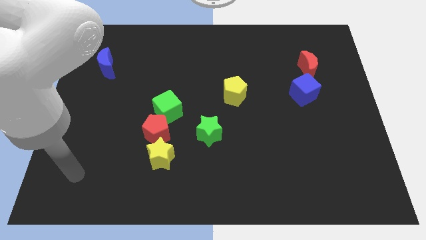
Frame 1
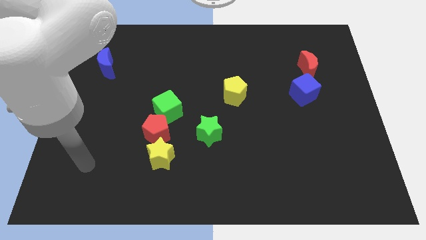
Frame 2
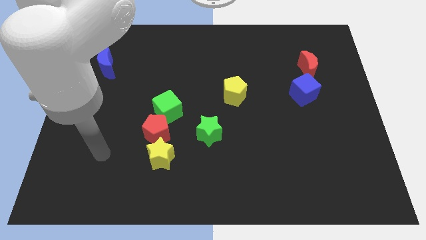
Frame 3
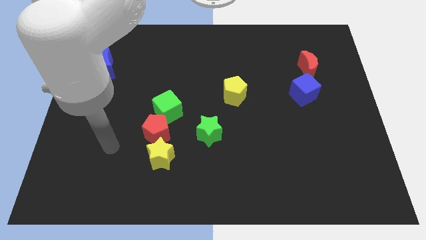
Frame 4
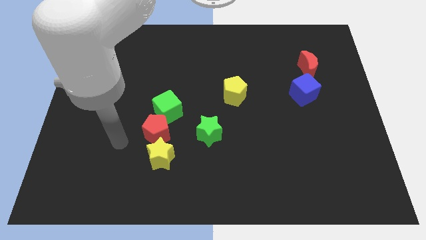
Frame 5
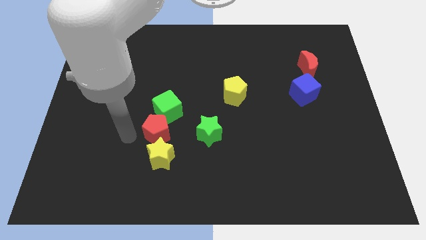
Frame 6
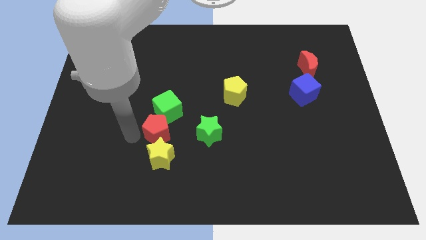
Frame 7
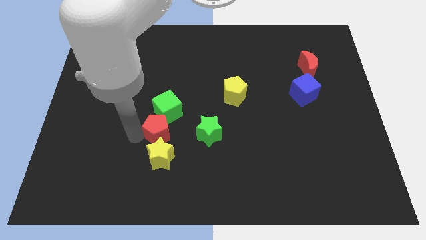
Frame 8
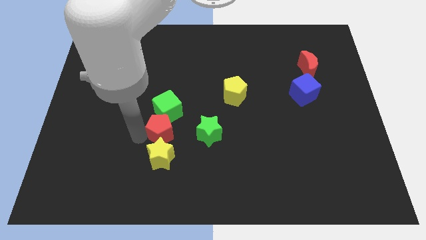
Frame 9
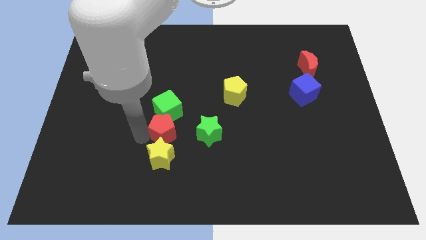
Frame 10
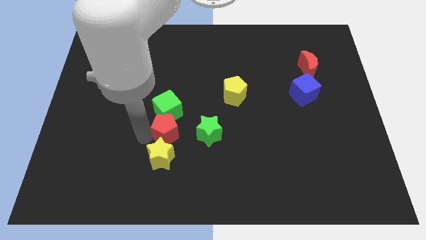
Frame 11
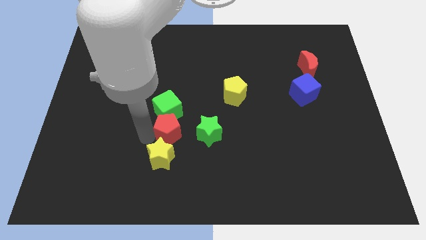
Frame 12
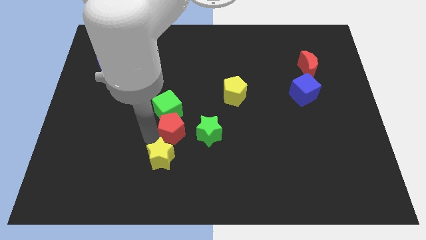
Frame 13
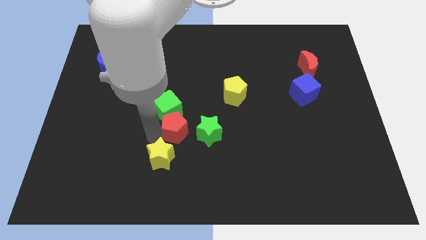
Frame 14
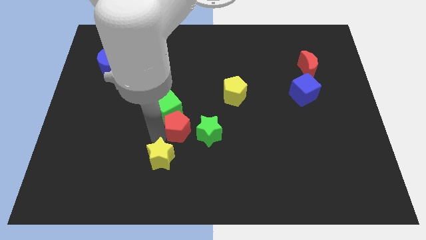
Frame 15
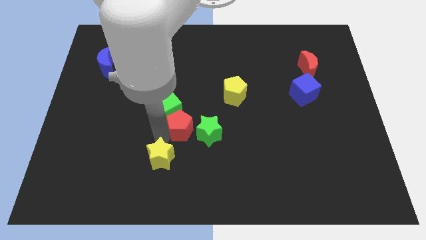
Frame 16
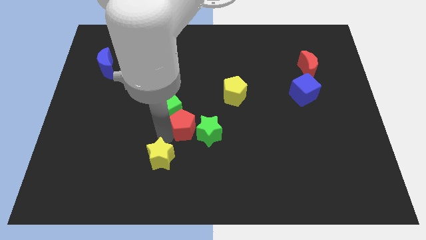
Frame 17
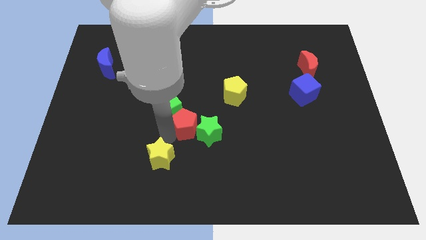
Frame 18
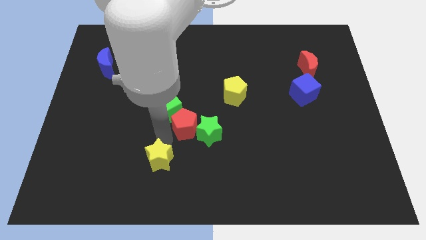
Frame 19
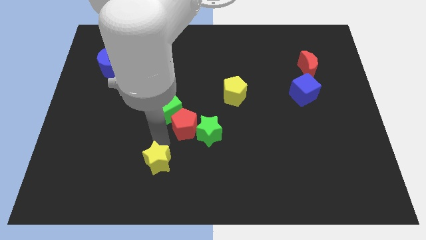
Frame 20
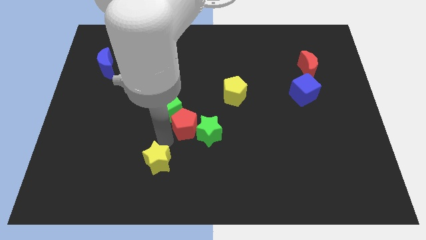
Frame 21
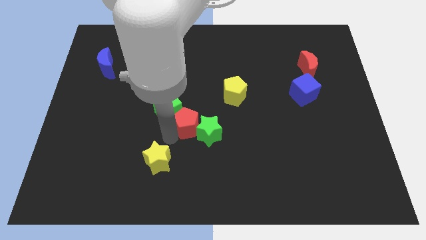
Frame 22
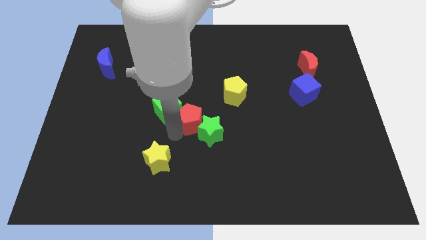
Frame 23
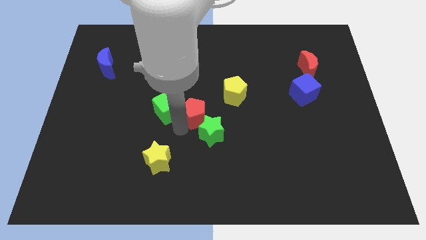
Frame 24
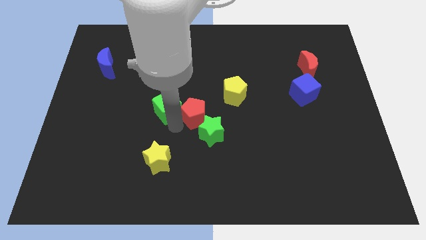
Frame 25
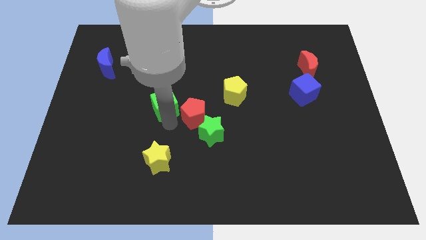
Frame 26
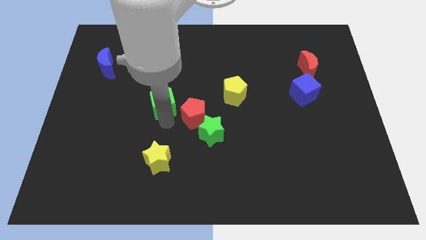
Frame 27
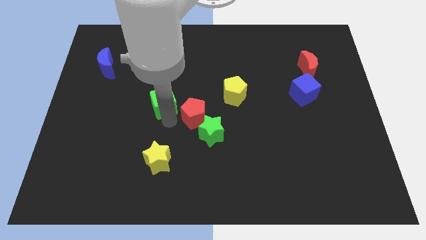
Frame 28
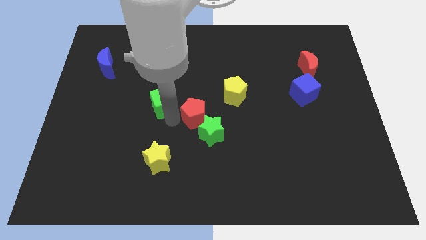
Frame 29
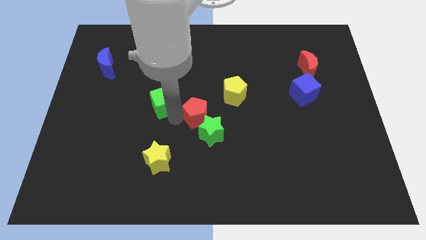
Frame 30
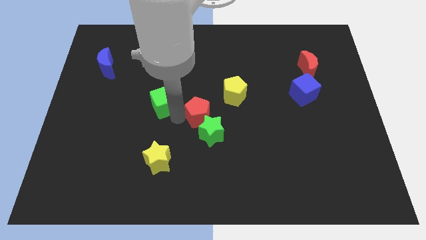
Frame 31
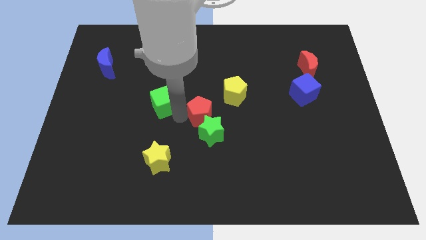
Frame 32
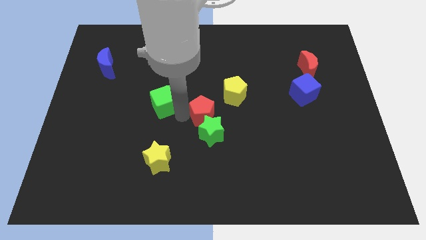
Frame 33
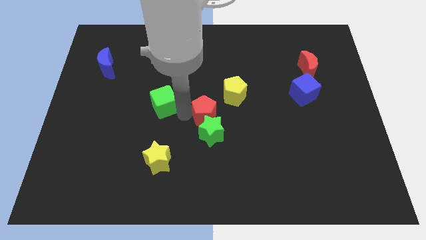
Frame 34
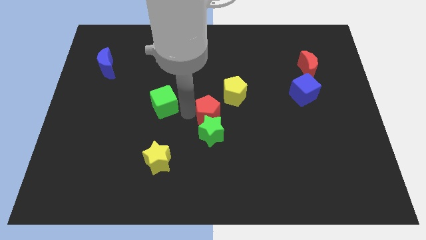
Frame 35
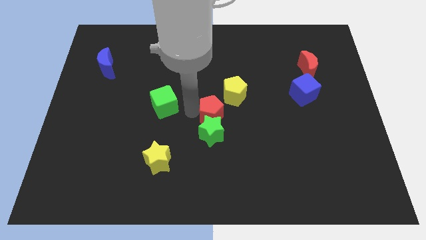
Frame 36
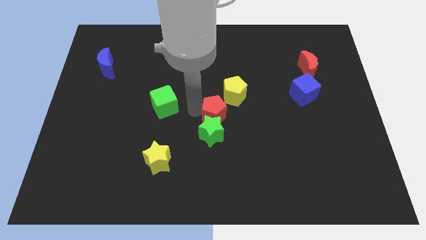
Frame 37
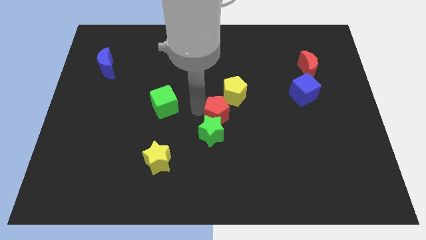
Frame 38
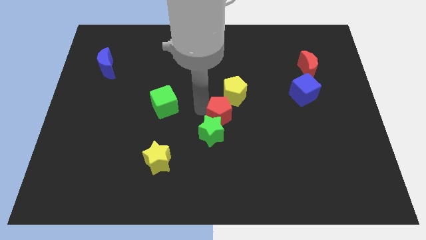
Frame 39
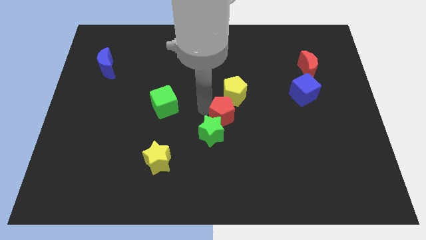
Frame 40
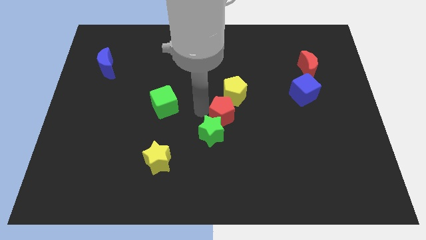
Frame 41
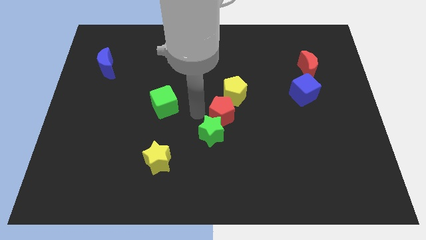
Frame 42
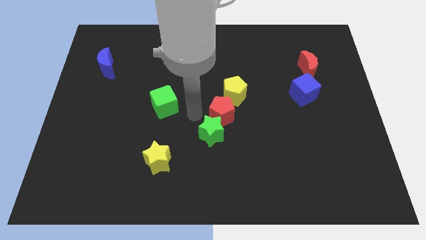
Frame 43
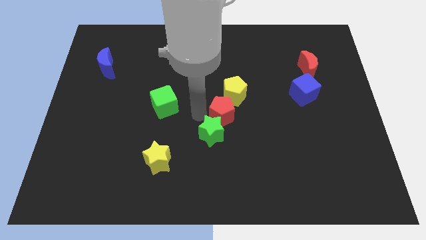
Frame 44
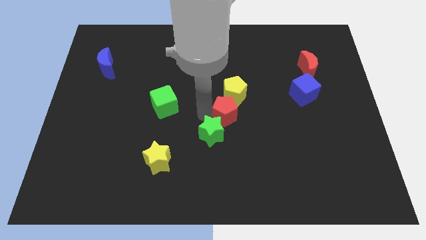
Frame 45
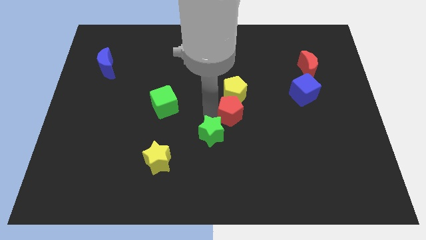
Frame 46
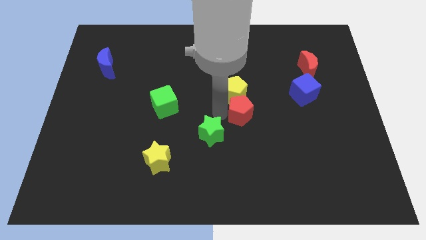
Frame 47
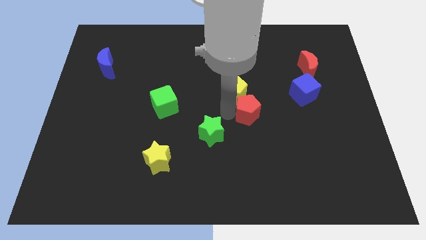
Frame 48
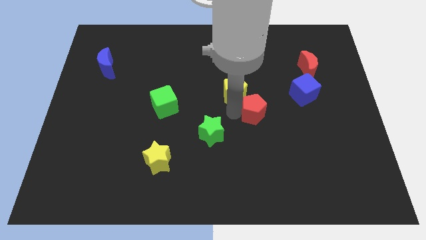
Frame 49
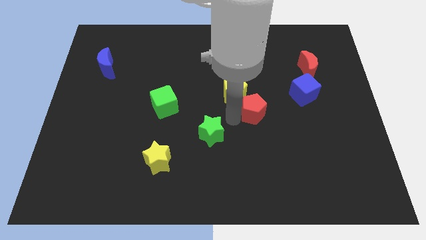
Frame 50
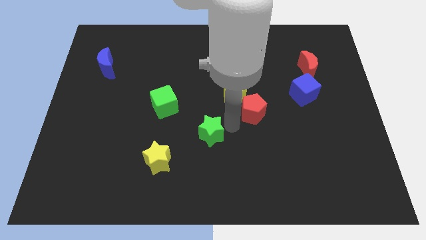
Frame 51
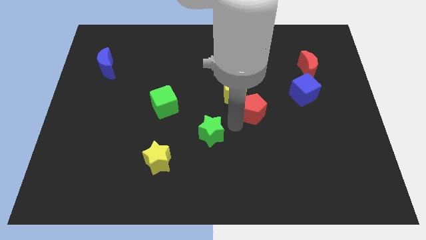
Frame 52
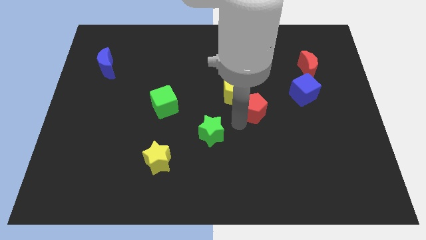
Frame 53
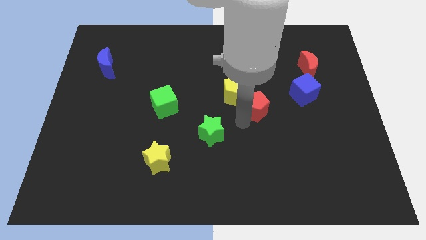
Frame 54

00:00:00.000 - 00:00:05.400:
move the red pentagon right of the yellow pentagon

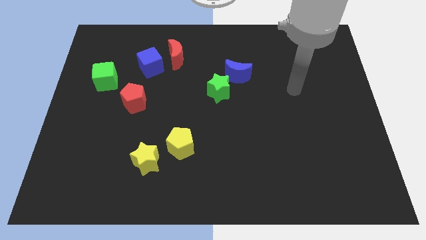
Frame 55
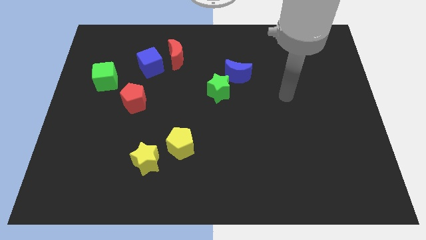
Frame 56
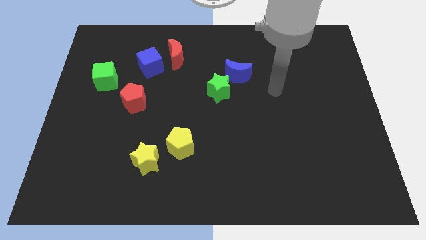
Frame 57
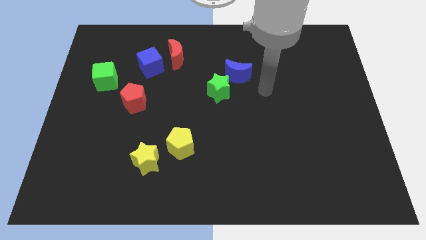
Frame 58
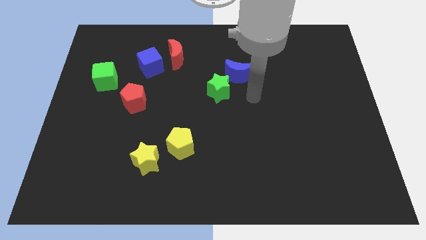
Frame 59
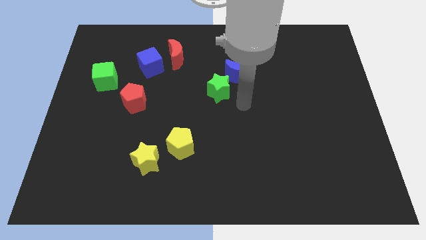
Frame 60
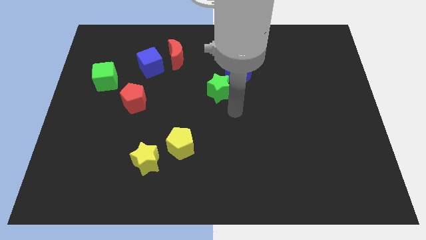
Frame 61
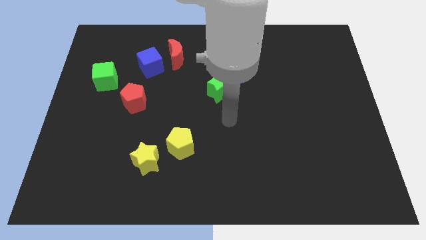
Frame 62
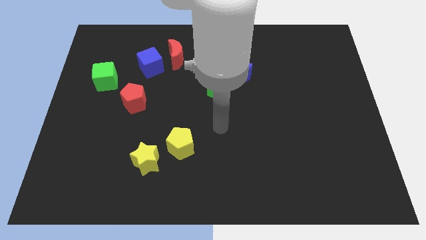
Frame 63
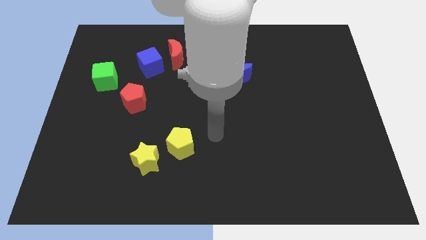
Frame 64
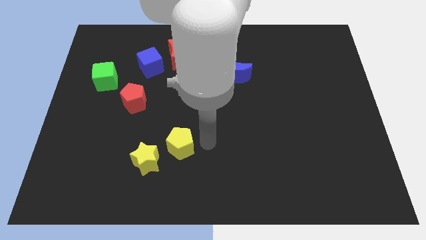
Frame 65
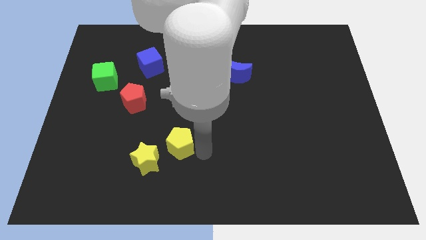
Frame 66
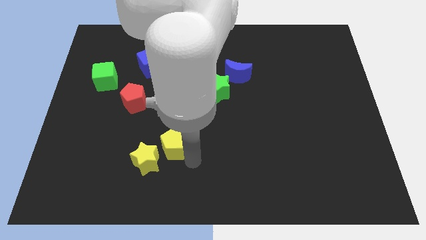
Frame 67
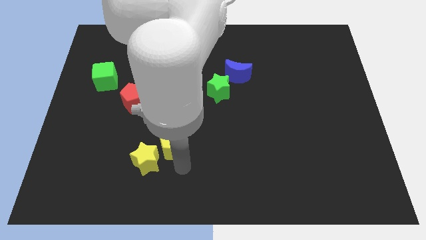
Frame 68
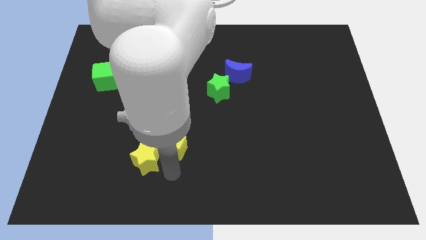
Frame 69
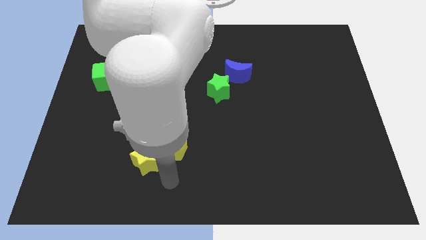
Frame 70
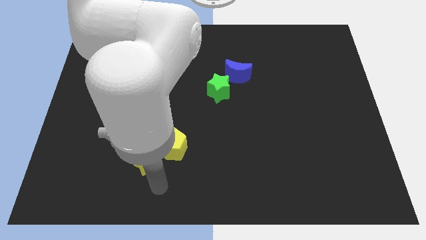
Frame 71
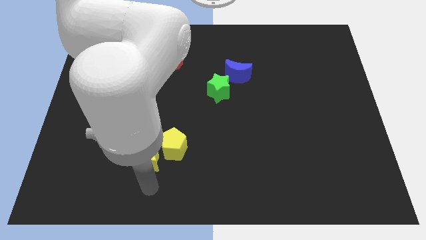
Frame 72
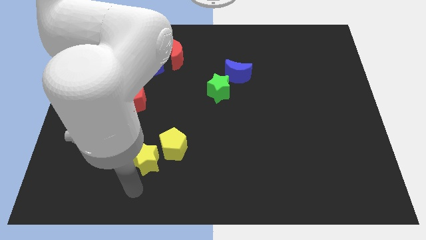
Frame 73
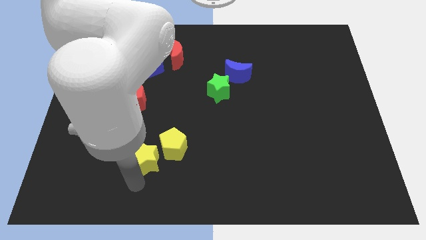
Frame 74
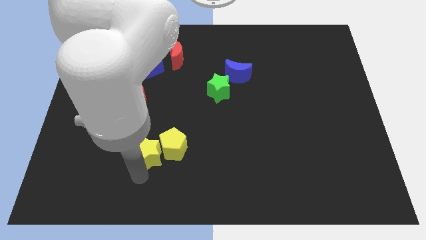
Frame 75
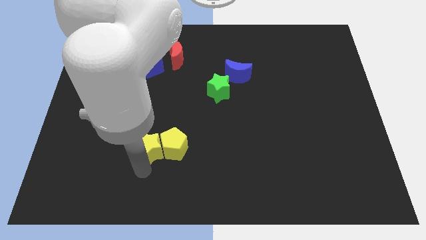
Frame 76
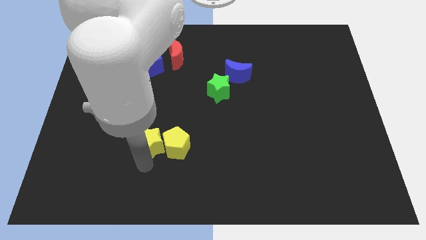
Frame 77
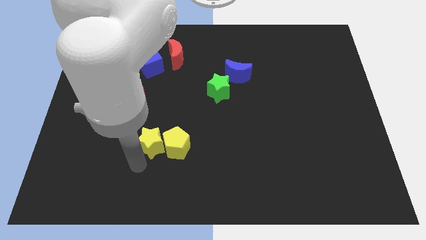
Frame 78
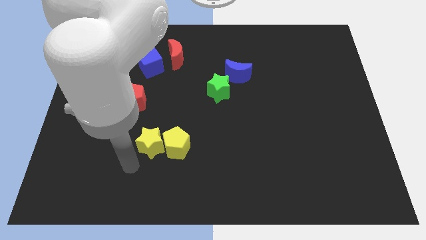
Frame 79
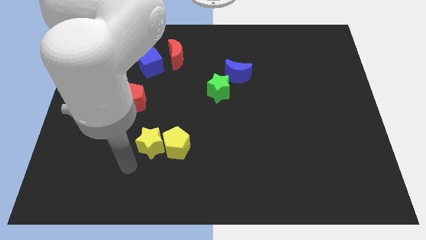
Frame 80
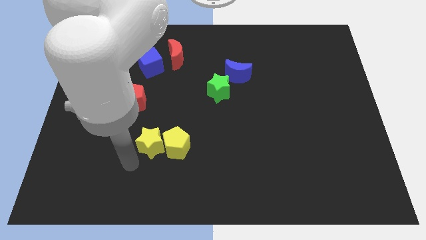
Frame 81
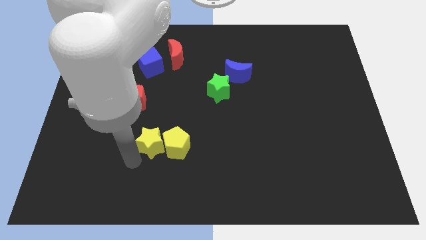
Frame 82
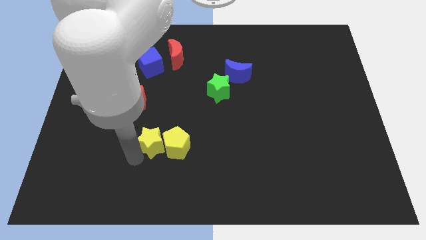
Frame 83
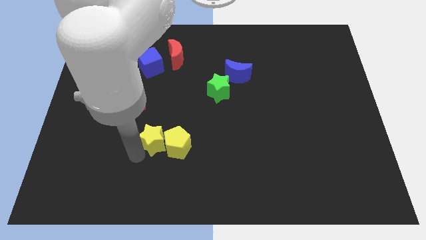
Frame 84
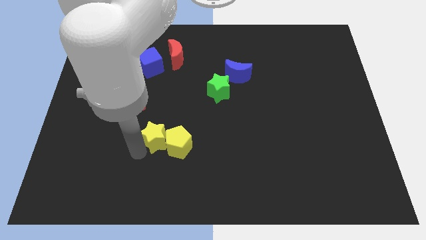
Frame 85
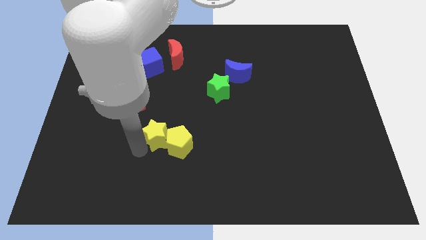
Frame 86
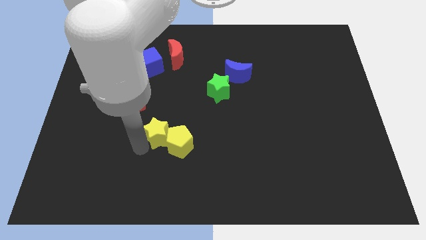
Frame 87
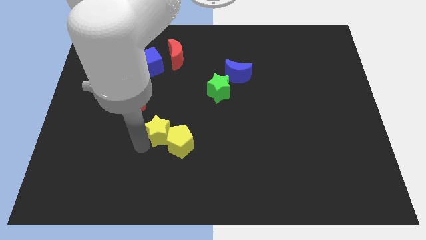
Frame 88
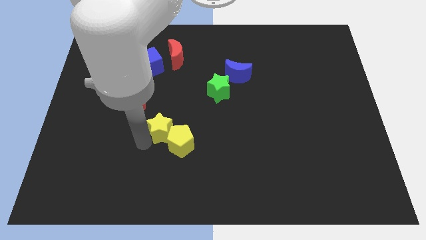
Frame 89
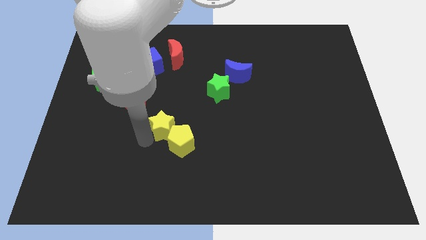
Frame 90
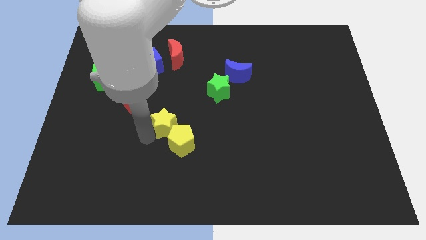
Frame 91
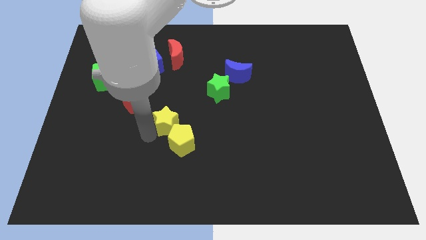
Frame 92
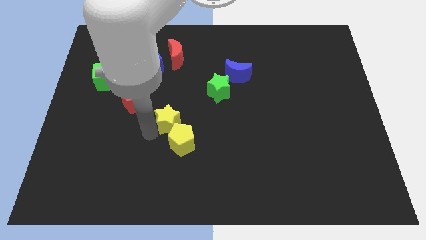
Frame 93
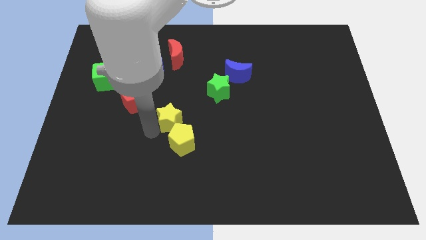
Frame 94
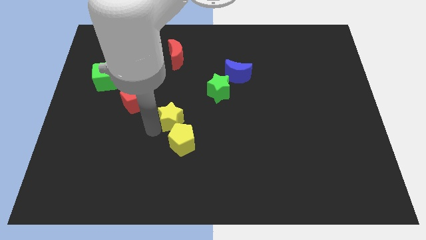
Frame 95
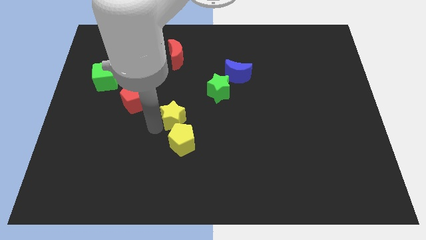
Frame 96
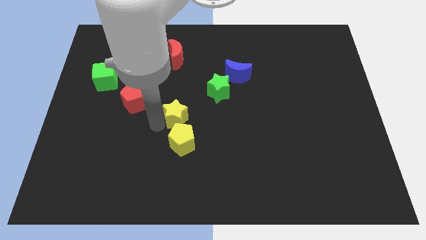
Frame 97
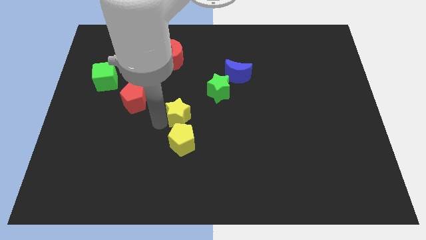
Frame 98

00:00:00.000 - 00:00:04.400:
slide the yellow star to the bottom left side of the green star
